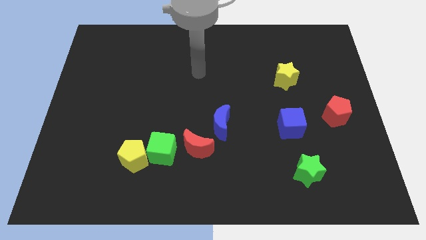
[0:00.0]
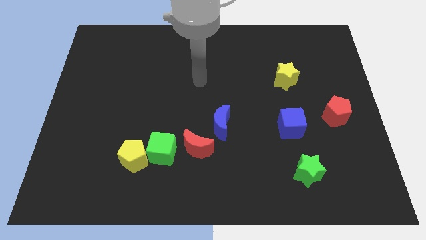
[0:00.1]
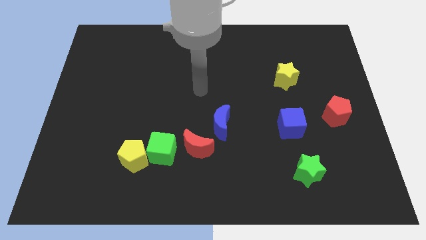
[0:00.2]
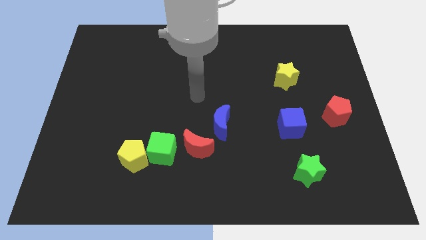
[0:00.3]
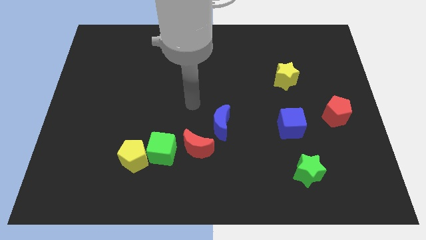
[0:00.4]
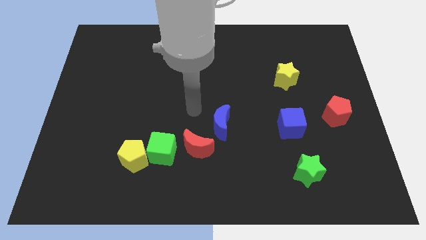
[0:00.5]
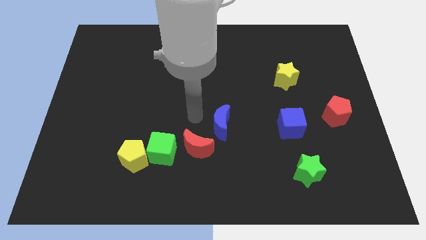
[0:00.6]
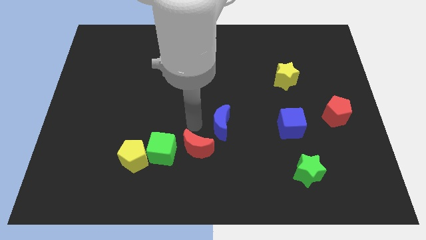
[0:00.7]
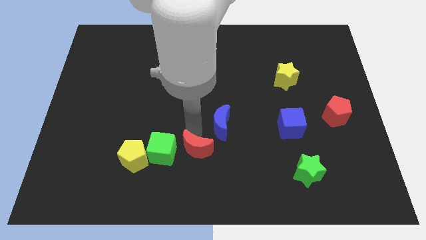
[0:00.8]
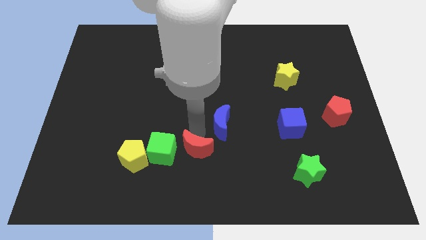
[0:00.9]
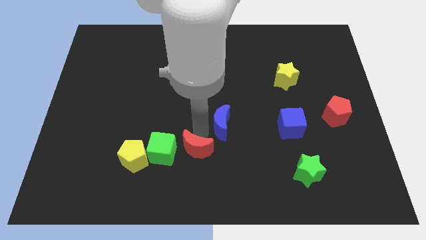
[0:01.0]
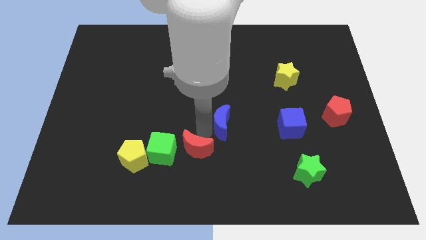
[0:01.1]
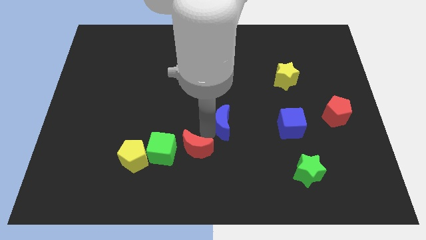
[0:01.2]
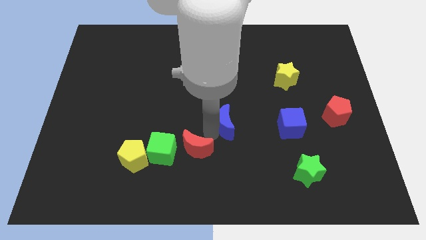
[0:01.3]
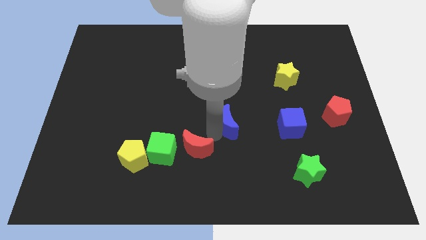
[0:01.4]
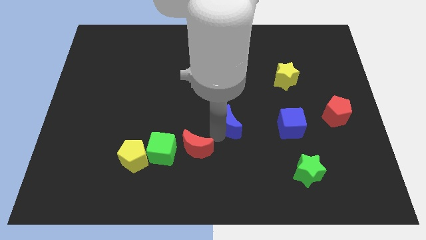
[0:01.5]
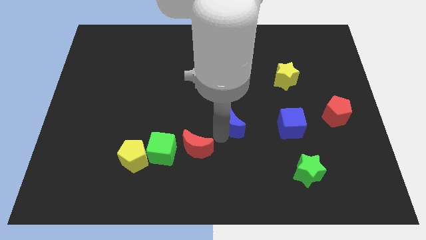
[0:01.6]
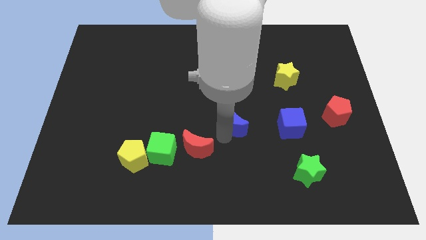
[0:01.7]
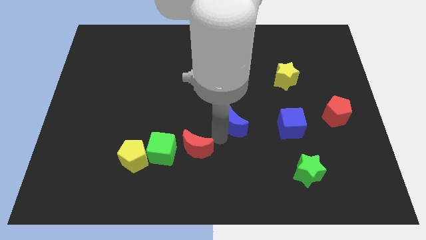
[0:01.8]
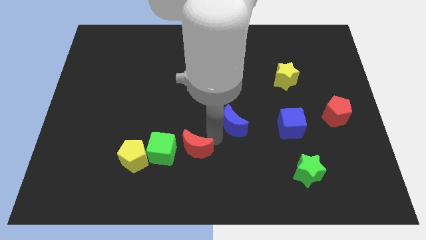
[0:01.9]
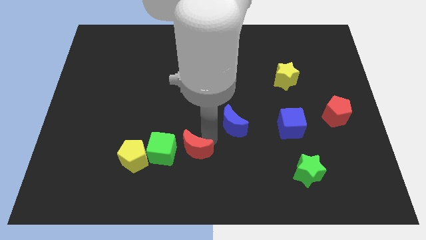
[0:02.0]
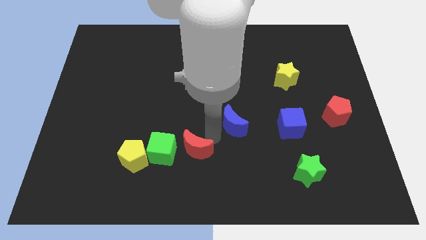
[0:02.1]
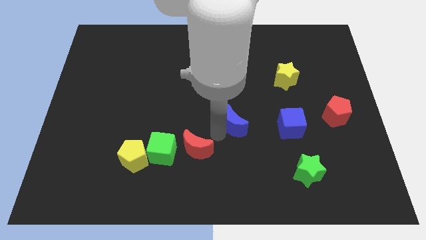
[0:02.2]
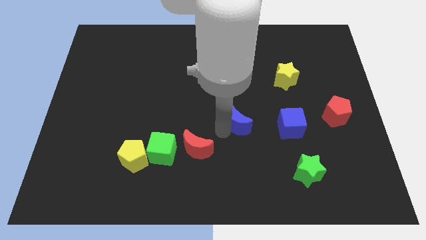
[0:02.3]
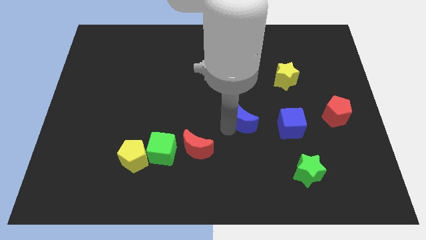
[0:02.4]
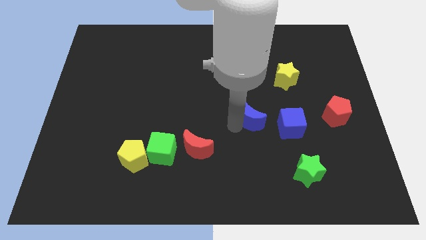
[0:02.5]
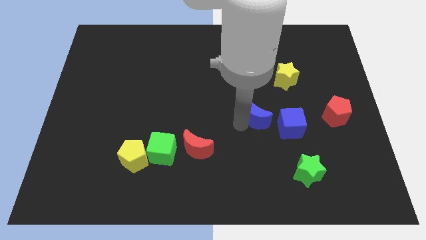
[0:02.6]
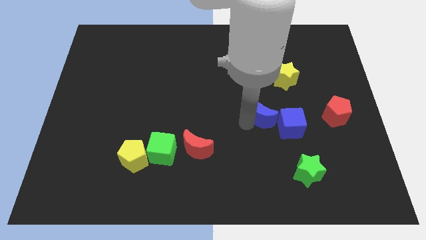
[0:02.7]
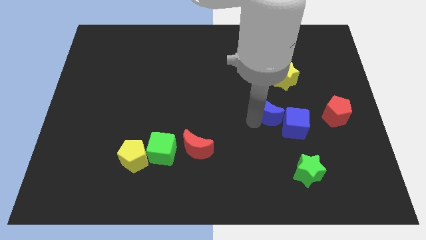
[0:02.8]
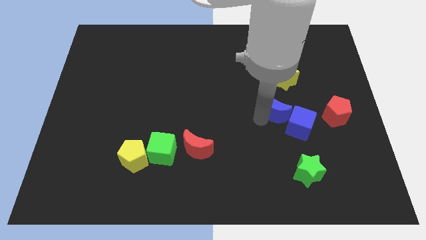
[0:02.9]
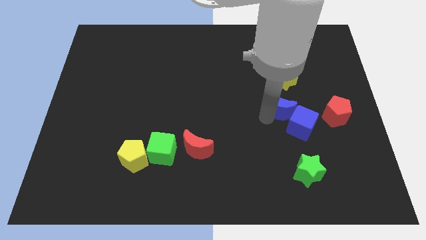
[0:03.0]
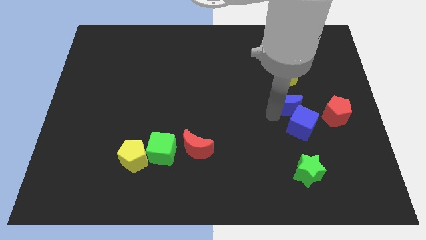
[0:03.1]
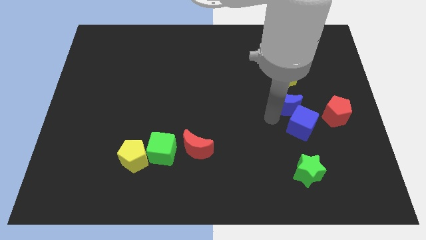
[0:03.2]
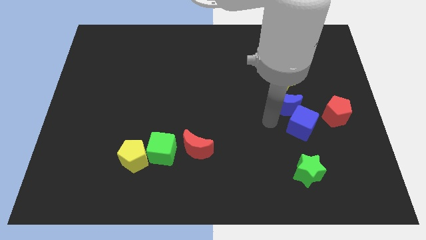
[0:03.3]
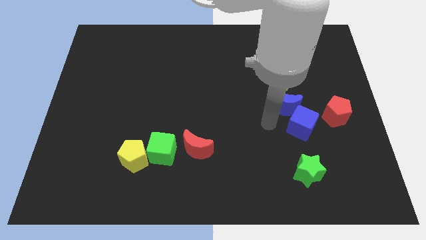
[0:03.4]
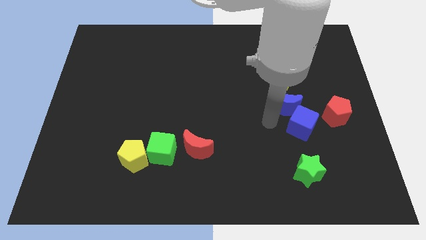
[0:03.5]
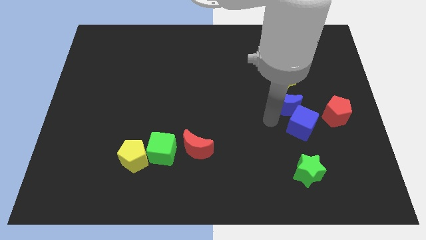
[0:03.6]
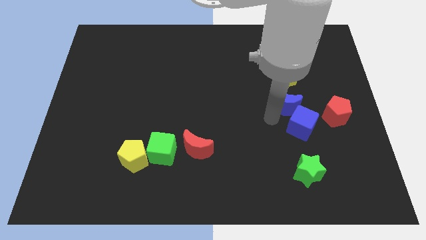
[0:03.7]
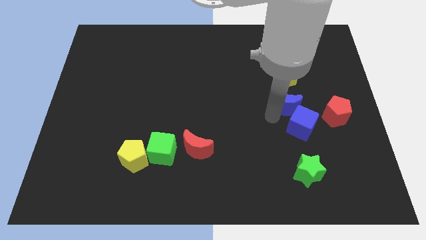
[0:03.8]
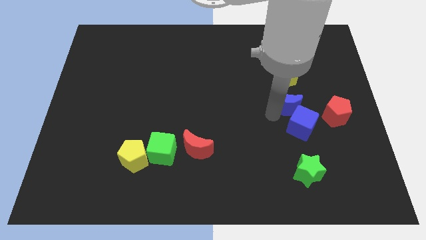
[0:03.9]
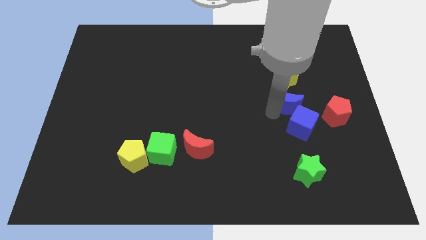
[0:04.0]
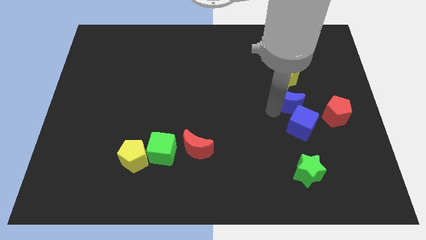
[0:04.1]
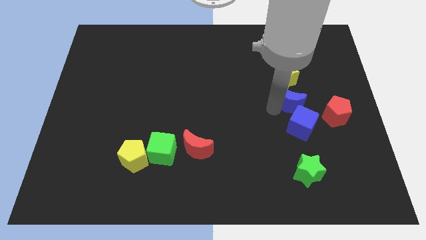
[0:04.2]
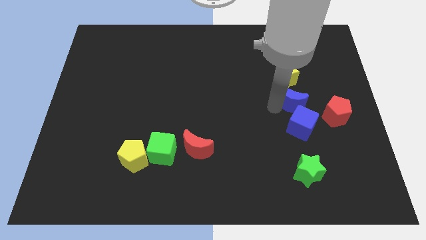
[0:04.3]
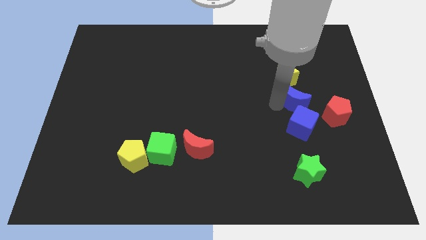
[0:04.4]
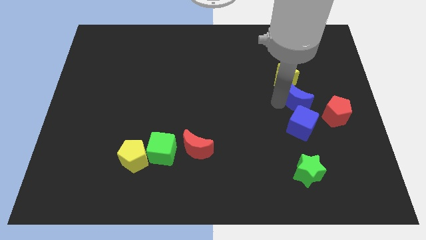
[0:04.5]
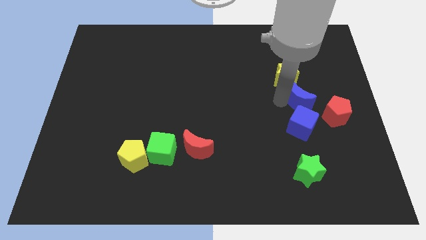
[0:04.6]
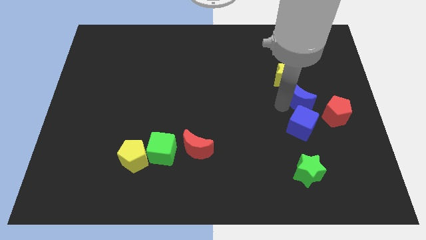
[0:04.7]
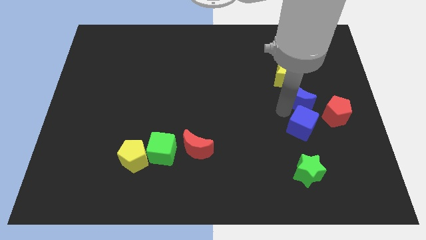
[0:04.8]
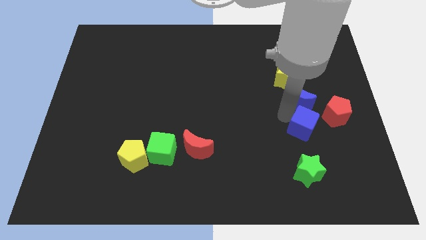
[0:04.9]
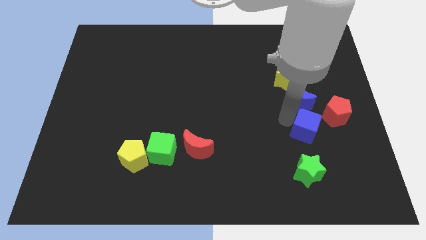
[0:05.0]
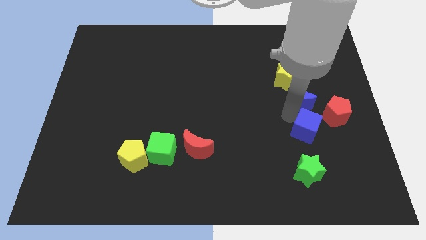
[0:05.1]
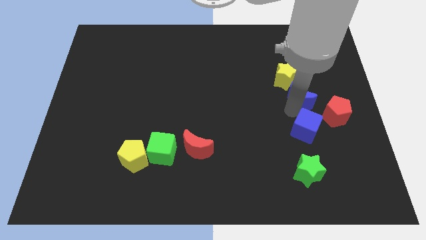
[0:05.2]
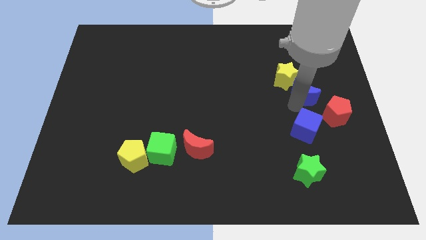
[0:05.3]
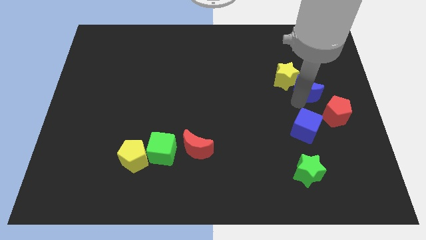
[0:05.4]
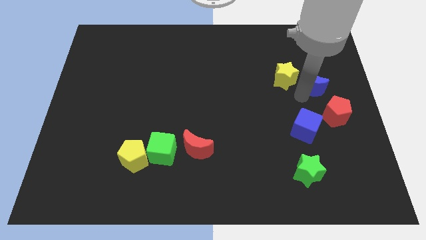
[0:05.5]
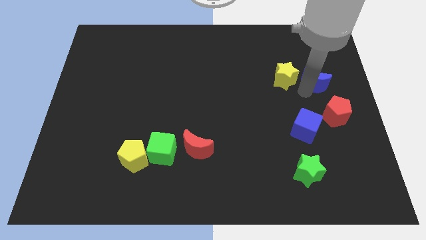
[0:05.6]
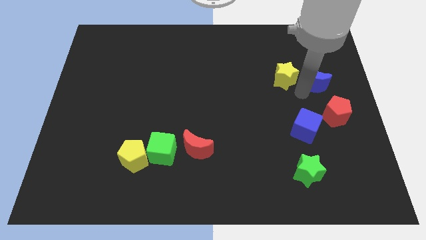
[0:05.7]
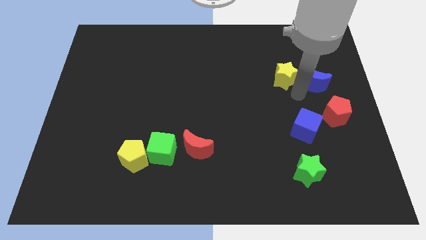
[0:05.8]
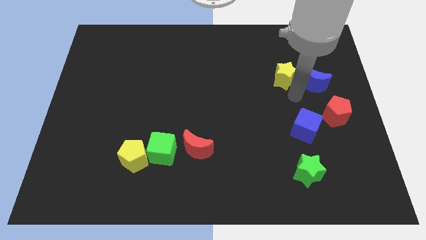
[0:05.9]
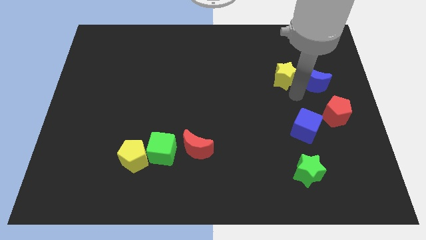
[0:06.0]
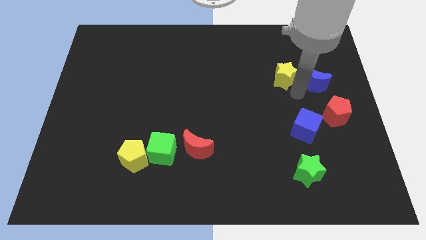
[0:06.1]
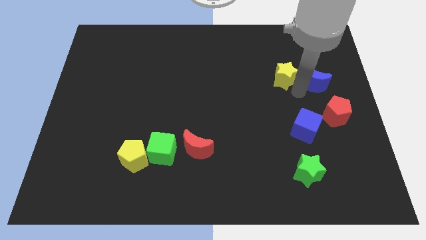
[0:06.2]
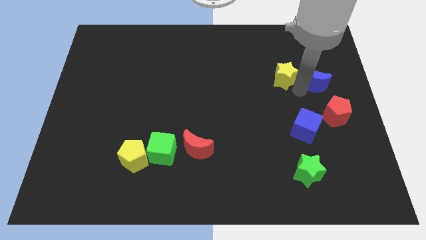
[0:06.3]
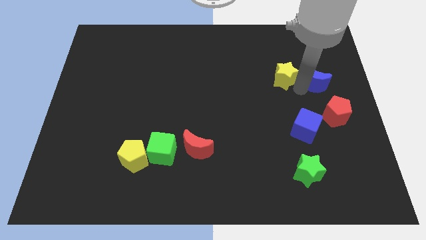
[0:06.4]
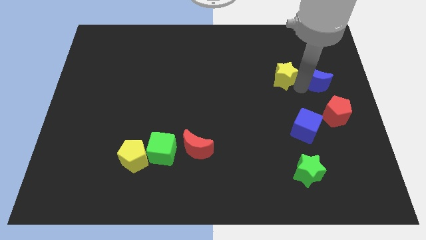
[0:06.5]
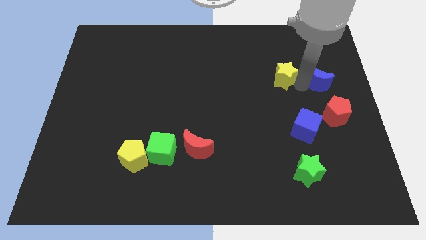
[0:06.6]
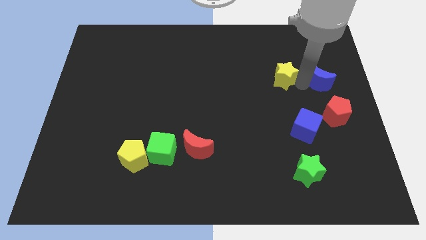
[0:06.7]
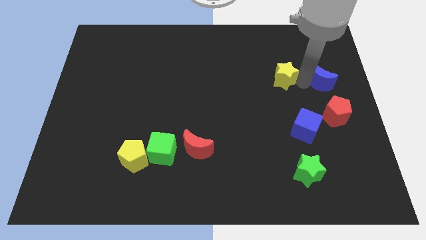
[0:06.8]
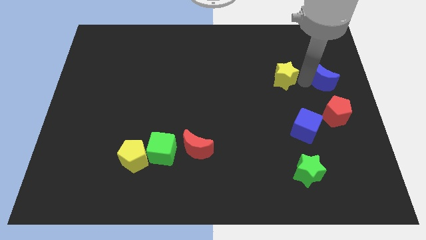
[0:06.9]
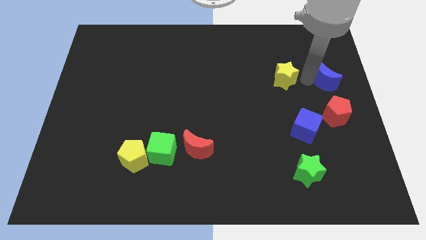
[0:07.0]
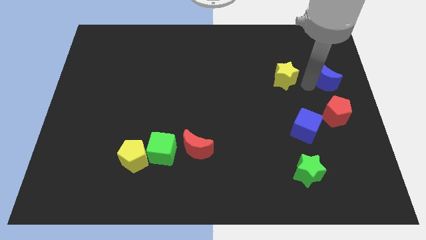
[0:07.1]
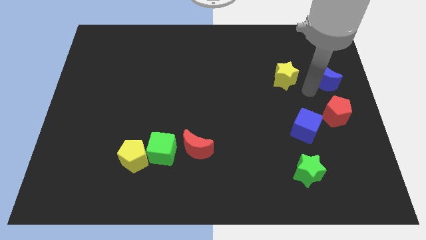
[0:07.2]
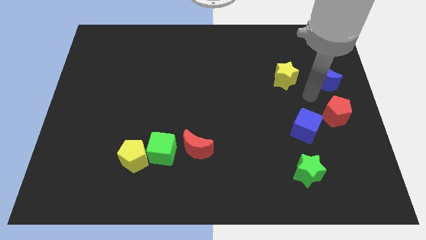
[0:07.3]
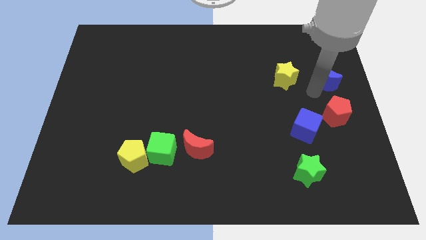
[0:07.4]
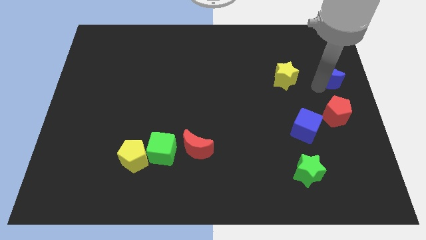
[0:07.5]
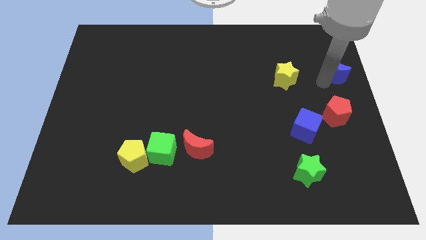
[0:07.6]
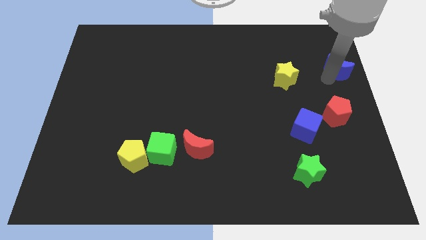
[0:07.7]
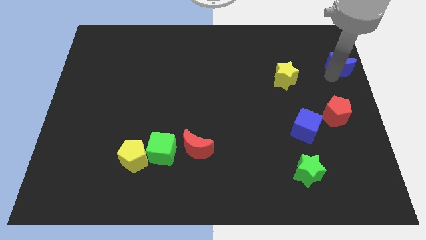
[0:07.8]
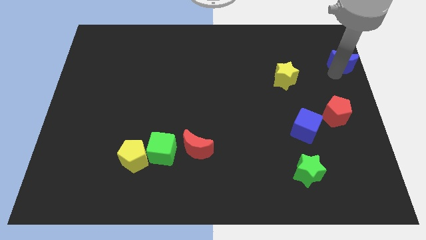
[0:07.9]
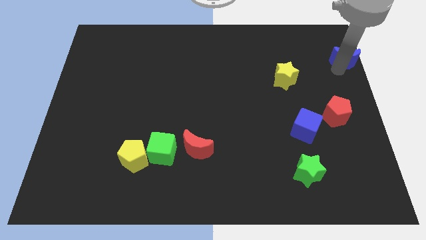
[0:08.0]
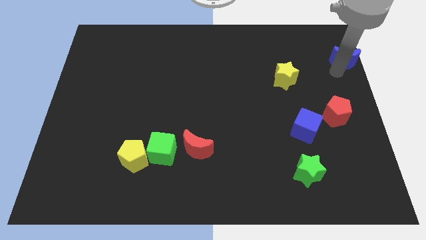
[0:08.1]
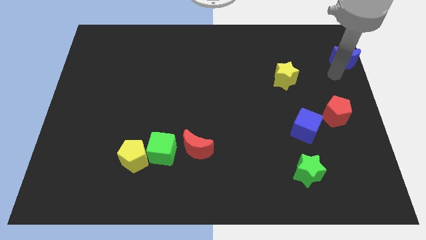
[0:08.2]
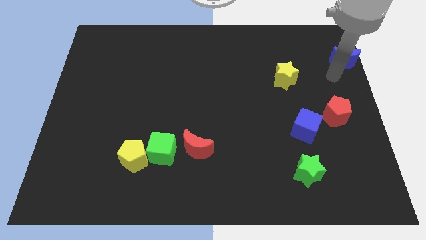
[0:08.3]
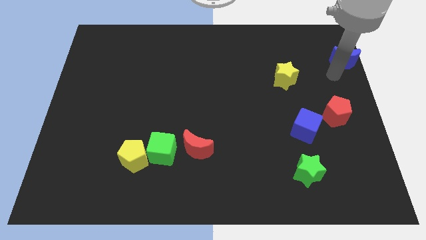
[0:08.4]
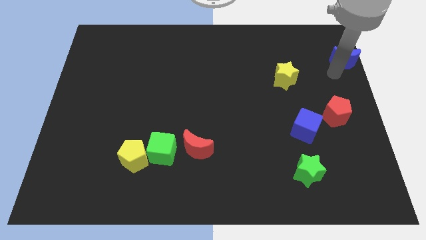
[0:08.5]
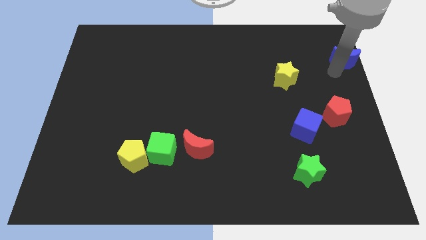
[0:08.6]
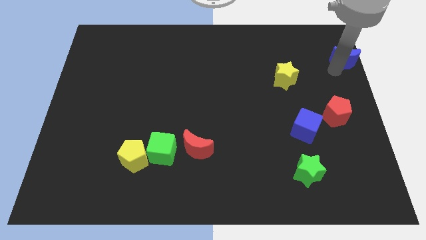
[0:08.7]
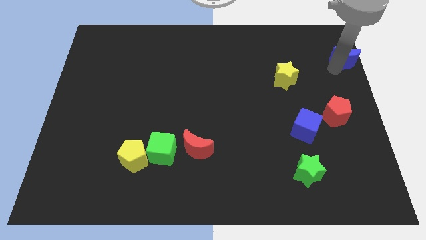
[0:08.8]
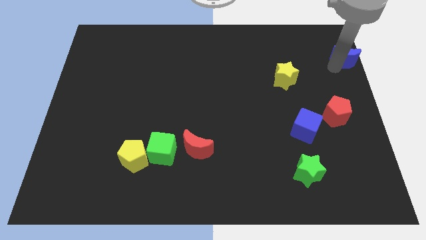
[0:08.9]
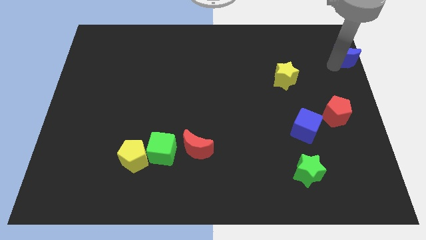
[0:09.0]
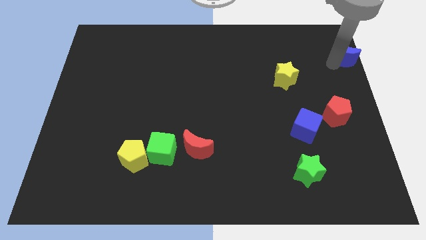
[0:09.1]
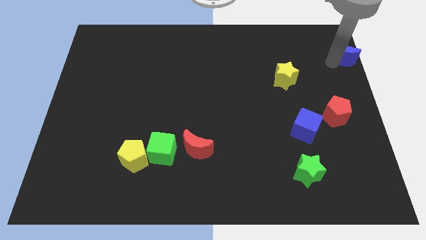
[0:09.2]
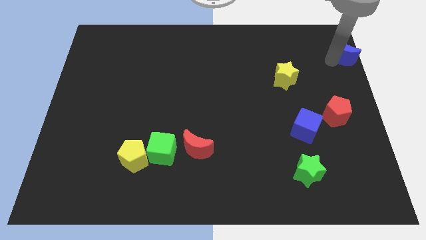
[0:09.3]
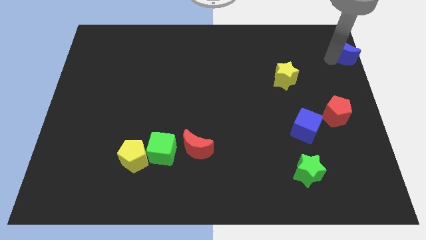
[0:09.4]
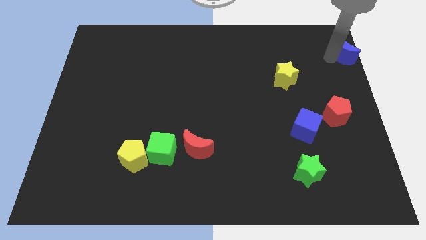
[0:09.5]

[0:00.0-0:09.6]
move the blue moon to the upper right corner
